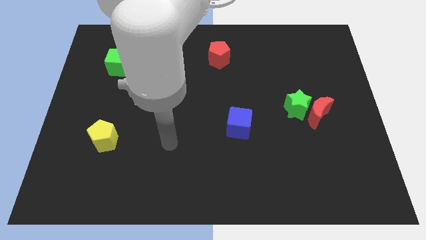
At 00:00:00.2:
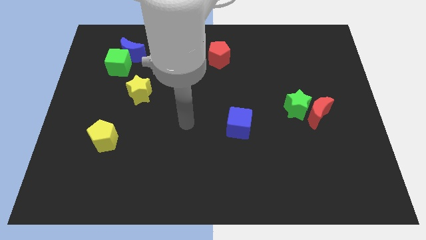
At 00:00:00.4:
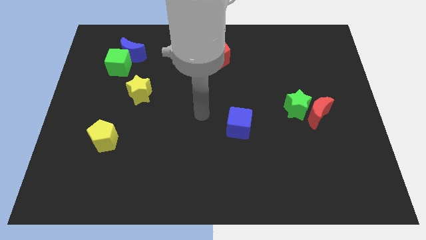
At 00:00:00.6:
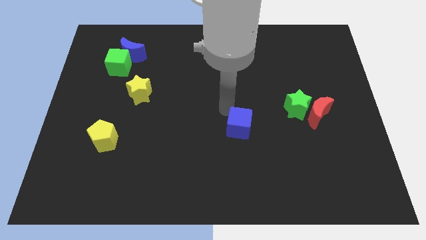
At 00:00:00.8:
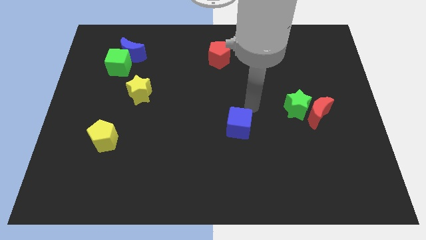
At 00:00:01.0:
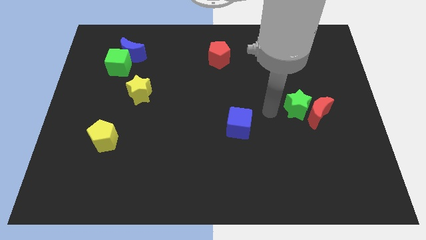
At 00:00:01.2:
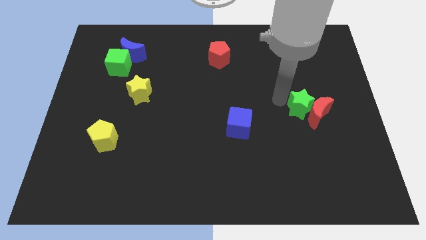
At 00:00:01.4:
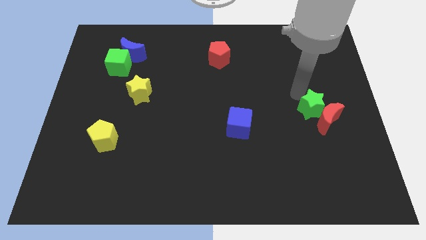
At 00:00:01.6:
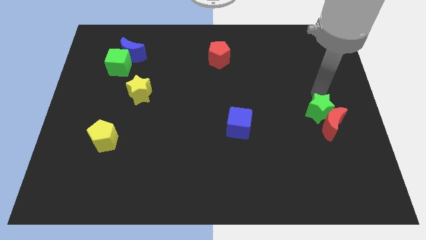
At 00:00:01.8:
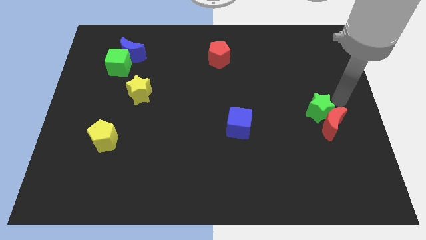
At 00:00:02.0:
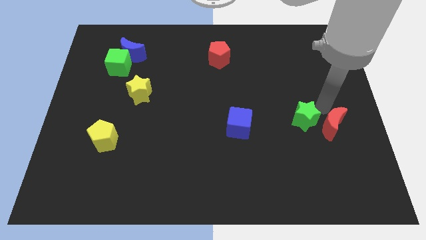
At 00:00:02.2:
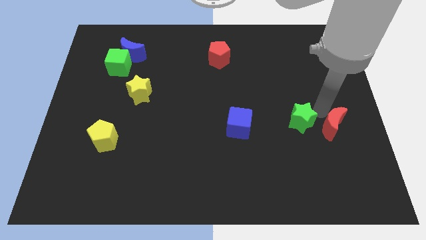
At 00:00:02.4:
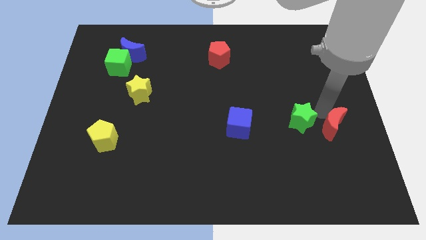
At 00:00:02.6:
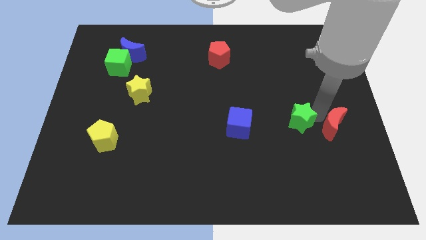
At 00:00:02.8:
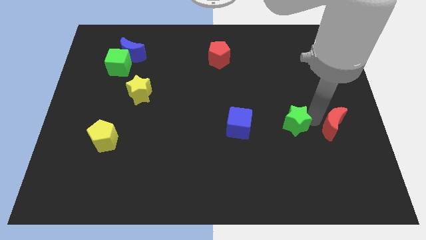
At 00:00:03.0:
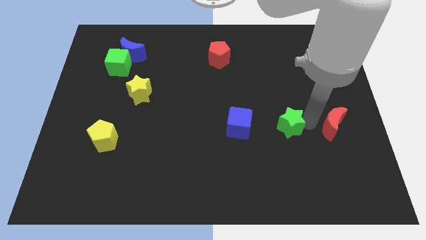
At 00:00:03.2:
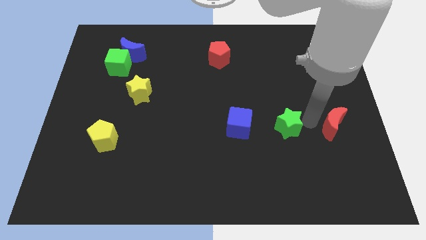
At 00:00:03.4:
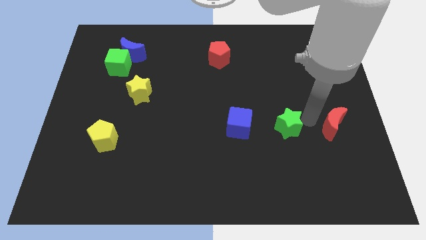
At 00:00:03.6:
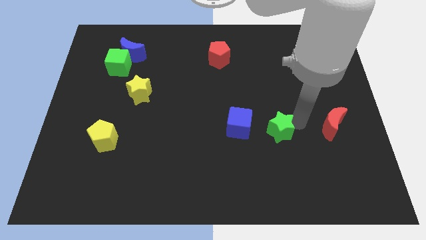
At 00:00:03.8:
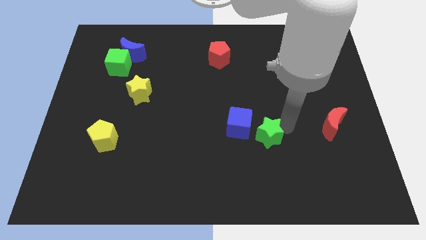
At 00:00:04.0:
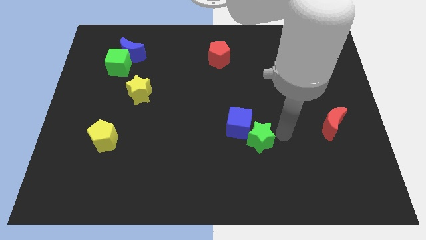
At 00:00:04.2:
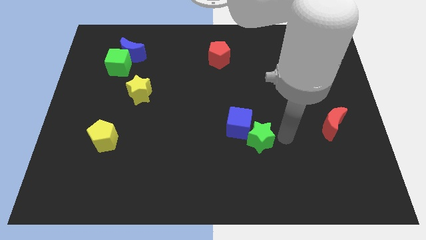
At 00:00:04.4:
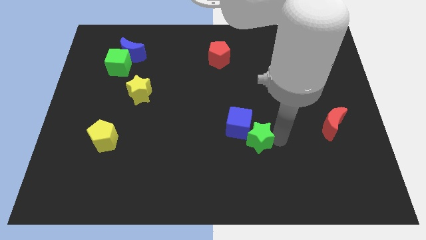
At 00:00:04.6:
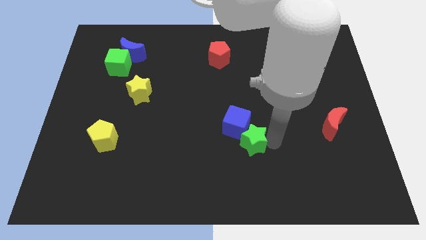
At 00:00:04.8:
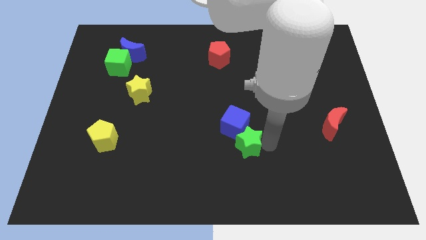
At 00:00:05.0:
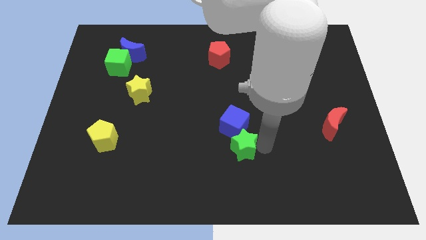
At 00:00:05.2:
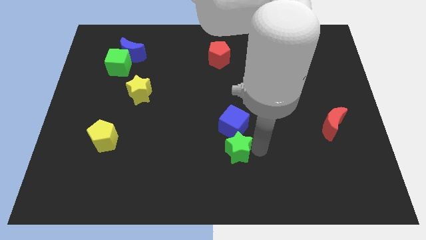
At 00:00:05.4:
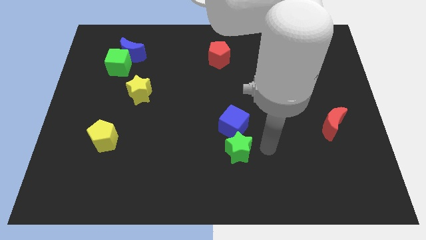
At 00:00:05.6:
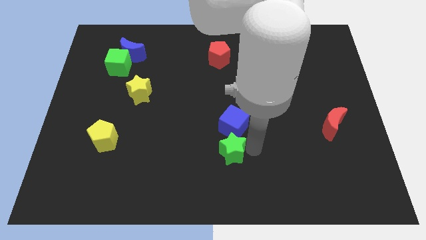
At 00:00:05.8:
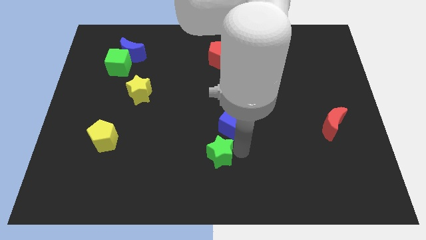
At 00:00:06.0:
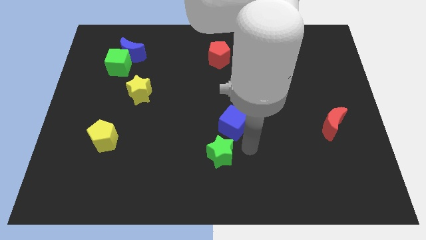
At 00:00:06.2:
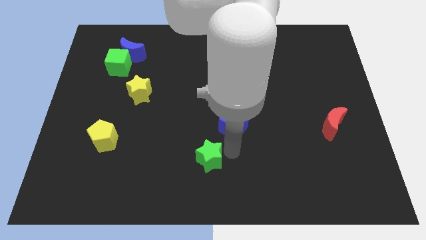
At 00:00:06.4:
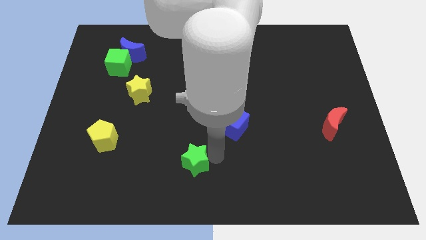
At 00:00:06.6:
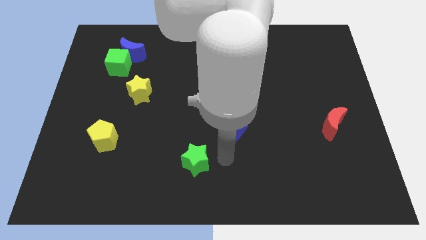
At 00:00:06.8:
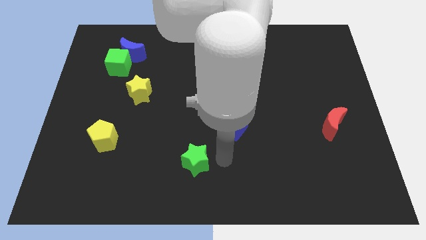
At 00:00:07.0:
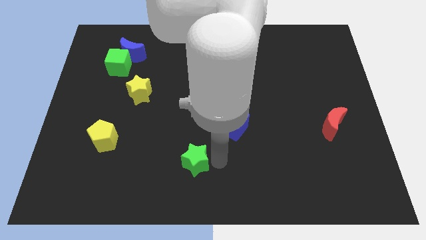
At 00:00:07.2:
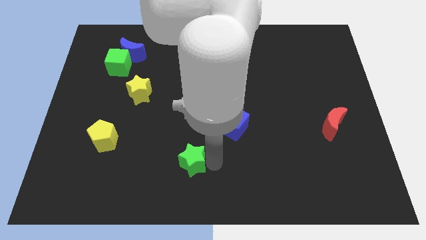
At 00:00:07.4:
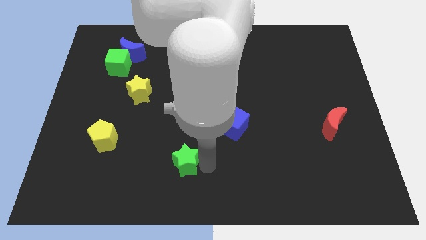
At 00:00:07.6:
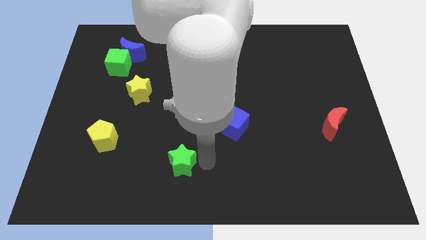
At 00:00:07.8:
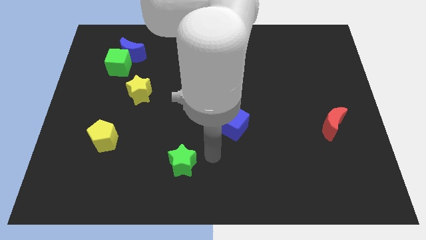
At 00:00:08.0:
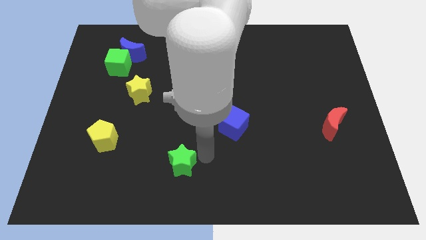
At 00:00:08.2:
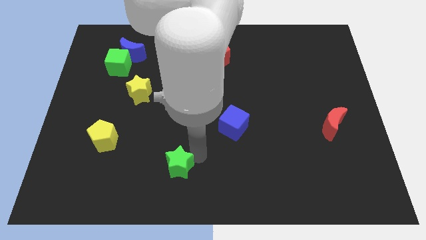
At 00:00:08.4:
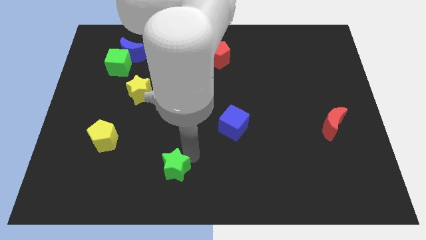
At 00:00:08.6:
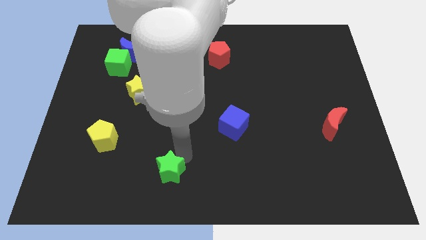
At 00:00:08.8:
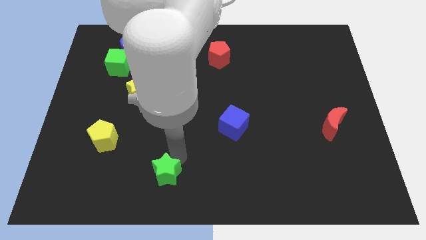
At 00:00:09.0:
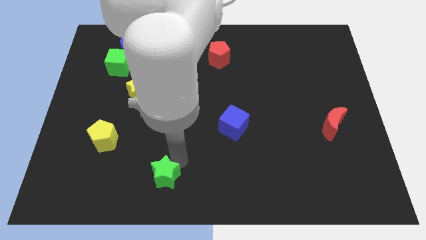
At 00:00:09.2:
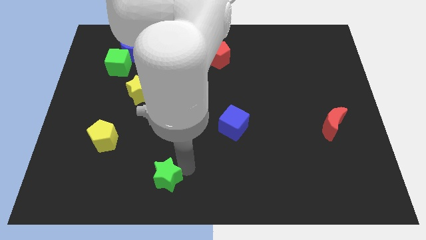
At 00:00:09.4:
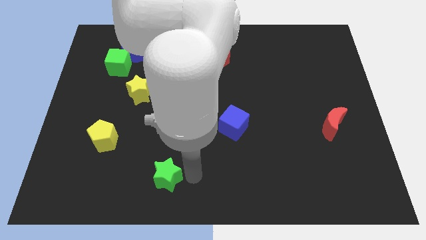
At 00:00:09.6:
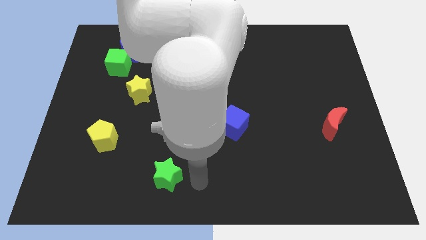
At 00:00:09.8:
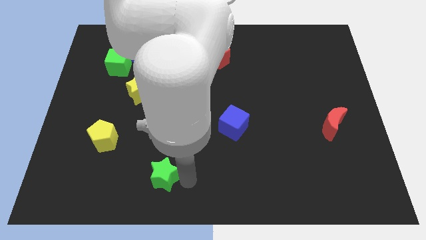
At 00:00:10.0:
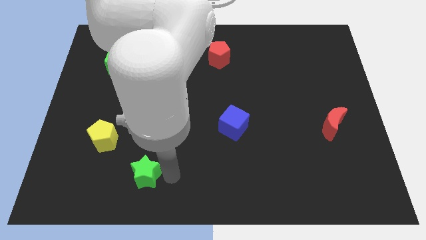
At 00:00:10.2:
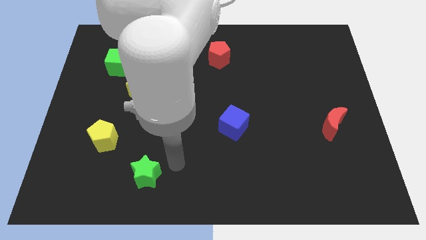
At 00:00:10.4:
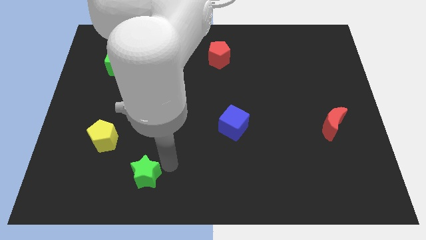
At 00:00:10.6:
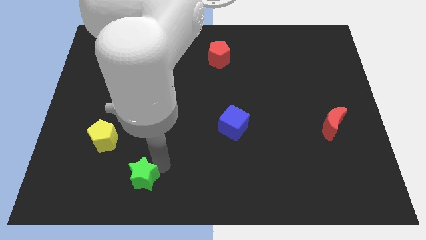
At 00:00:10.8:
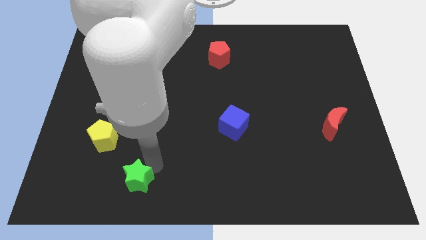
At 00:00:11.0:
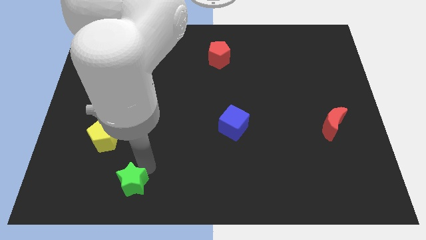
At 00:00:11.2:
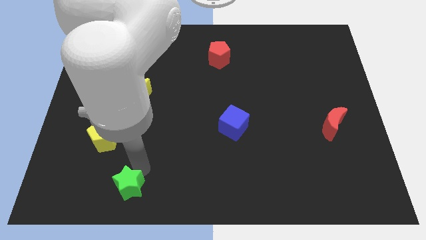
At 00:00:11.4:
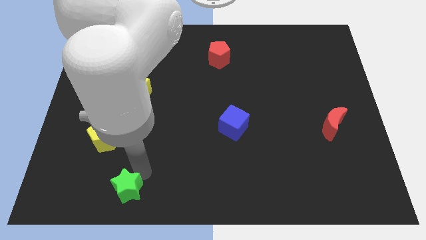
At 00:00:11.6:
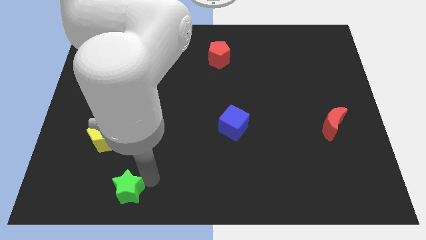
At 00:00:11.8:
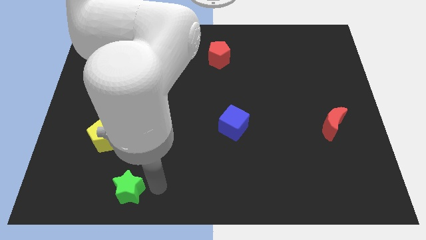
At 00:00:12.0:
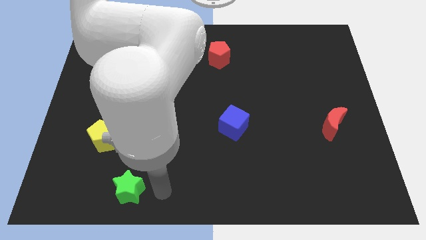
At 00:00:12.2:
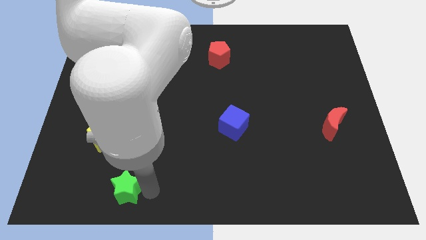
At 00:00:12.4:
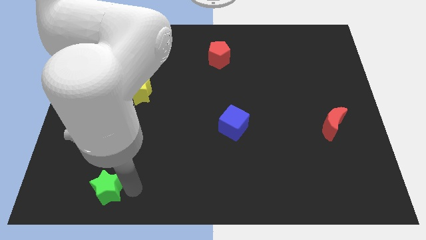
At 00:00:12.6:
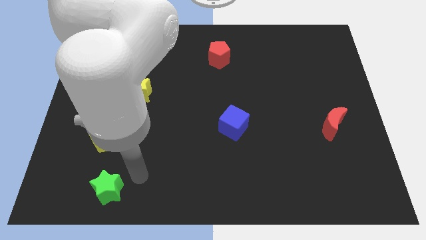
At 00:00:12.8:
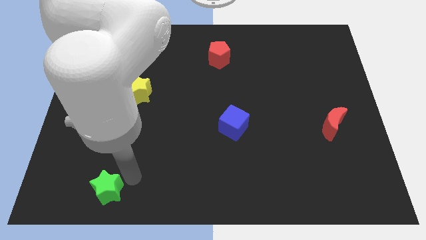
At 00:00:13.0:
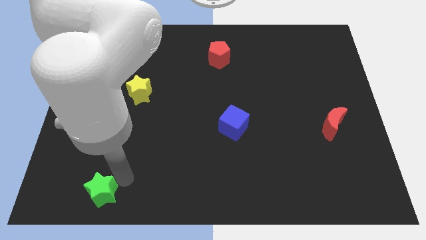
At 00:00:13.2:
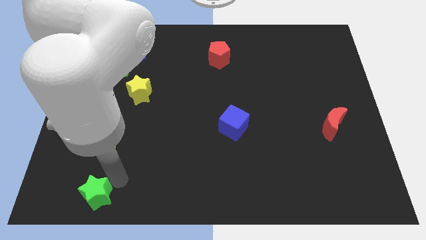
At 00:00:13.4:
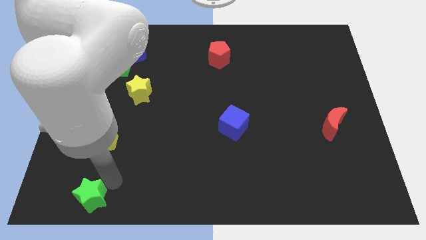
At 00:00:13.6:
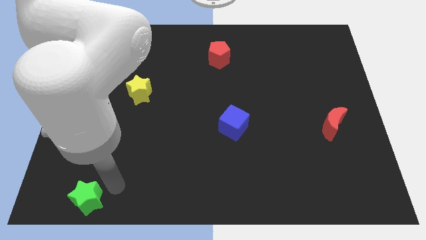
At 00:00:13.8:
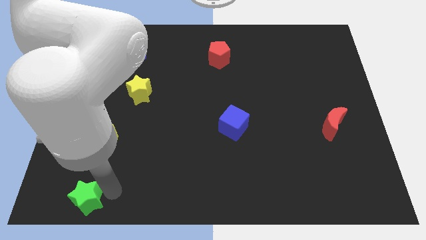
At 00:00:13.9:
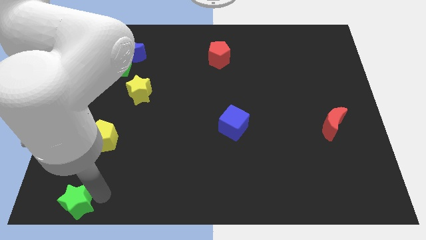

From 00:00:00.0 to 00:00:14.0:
put the green star to the bottom left of the board
